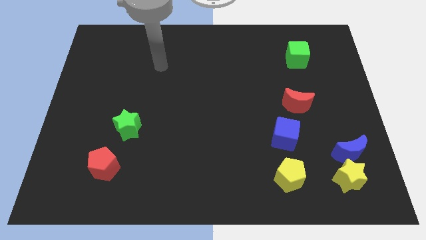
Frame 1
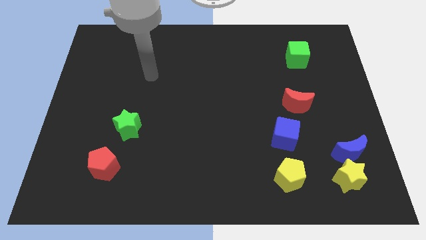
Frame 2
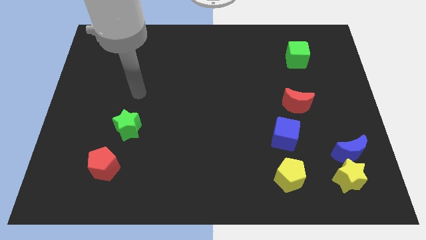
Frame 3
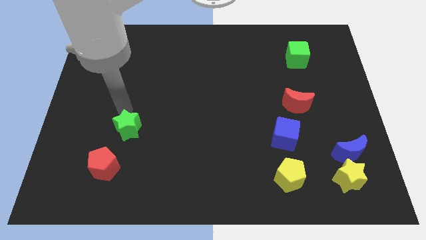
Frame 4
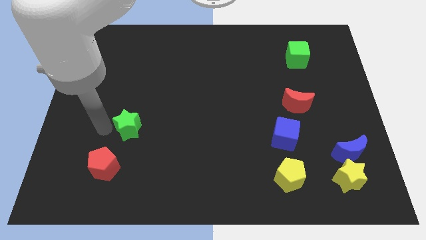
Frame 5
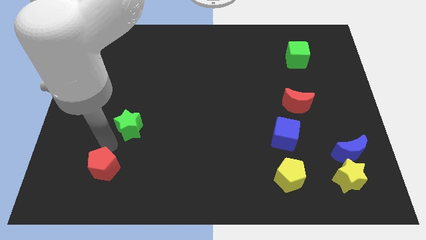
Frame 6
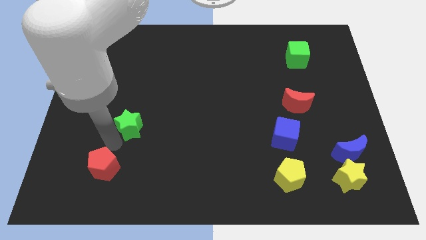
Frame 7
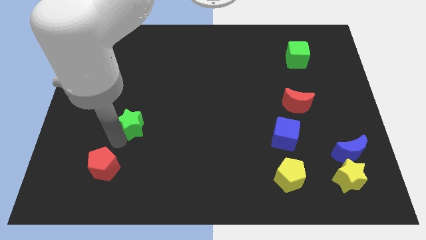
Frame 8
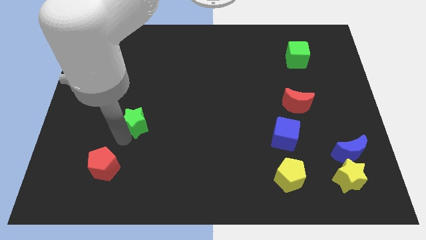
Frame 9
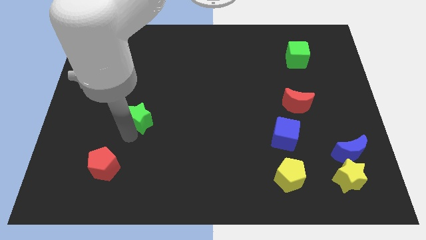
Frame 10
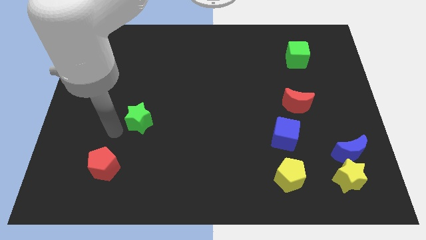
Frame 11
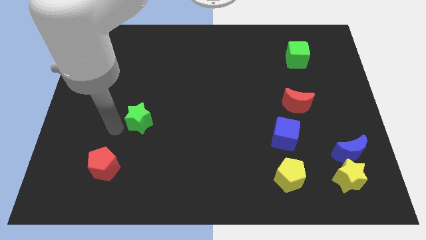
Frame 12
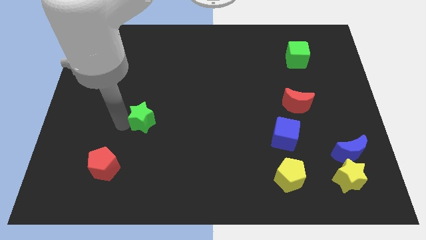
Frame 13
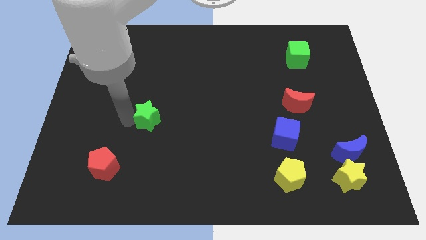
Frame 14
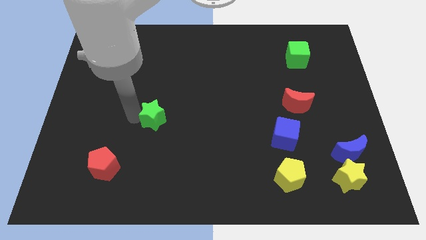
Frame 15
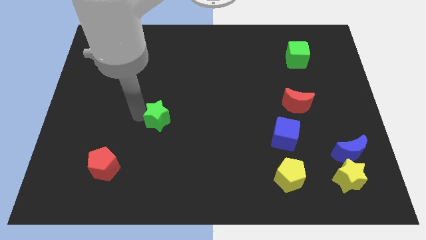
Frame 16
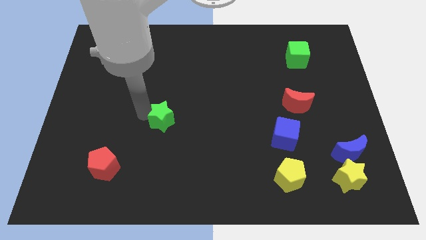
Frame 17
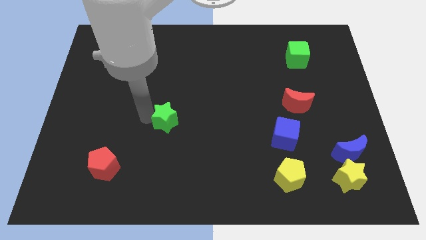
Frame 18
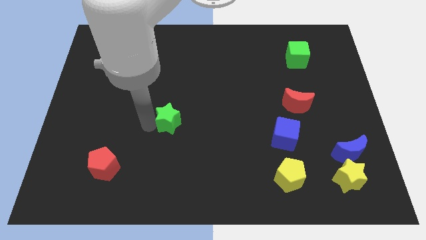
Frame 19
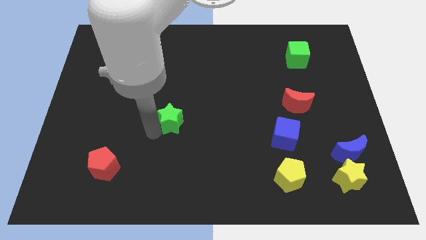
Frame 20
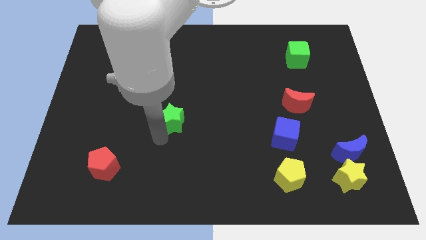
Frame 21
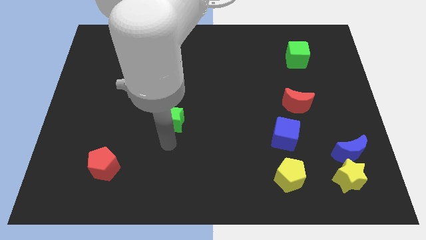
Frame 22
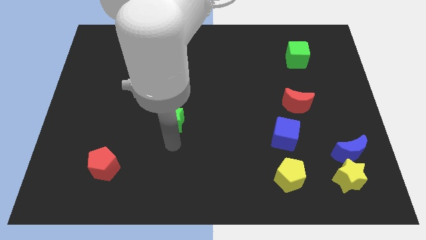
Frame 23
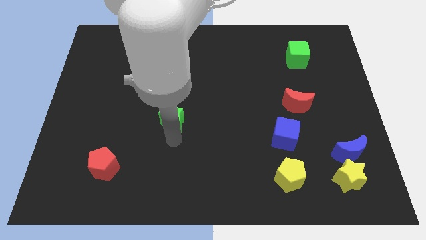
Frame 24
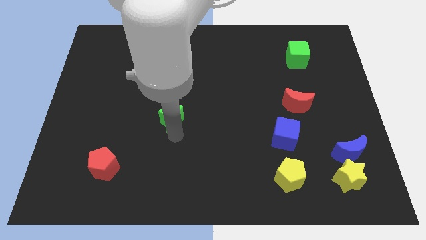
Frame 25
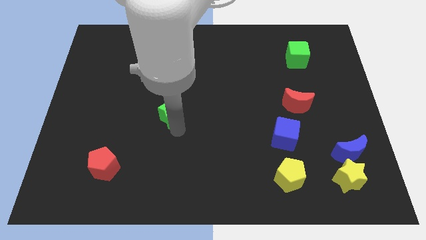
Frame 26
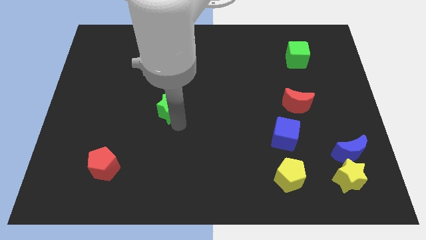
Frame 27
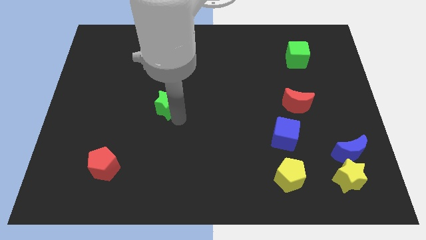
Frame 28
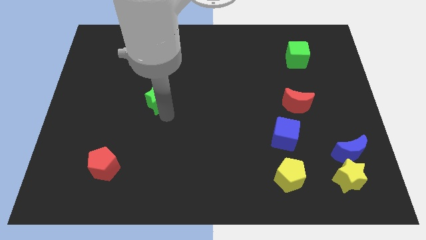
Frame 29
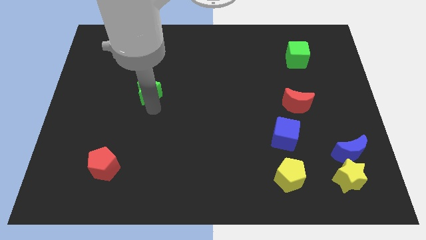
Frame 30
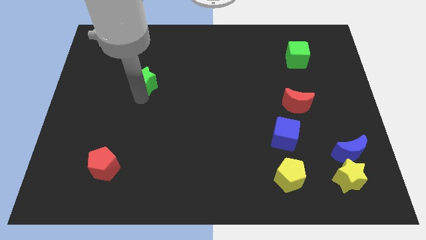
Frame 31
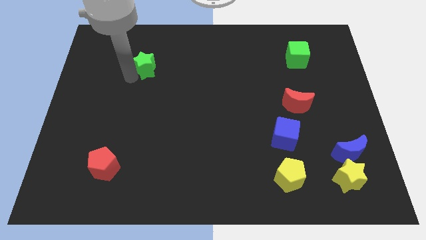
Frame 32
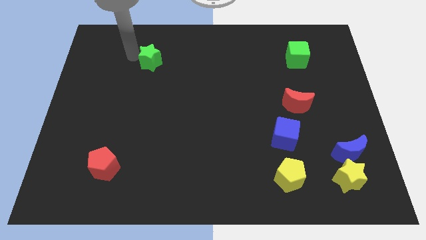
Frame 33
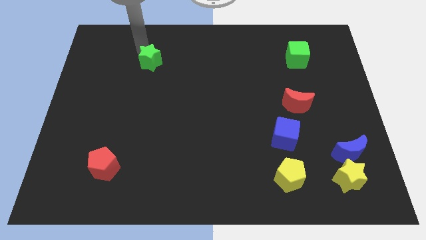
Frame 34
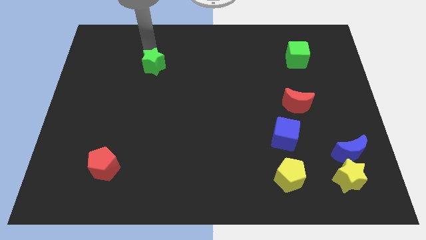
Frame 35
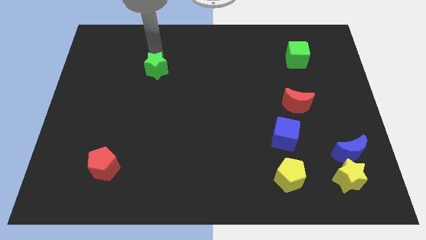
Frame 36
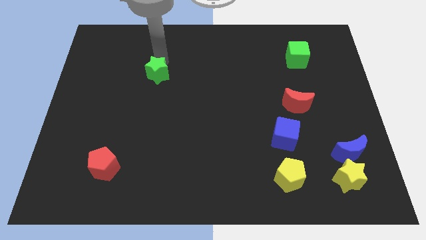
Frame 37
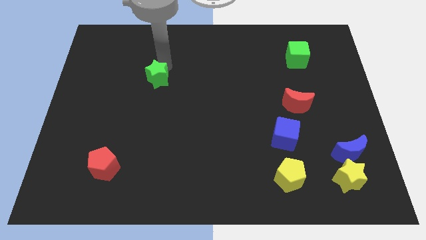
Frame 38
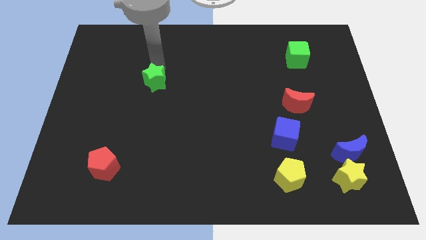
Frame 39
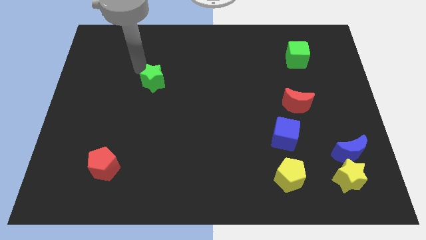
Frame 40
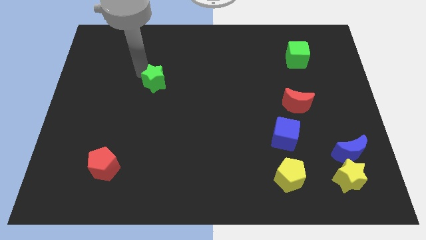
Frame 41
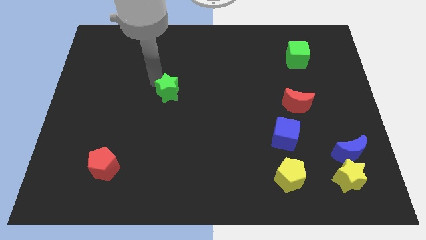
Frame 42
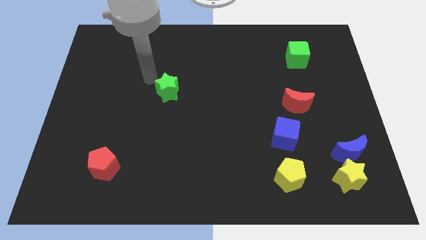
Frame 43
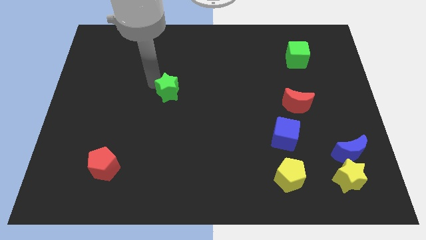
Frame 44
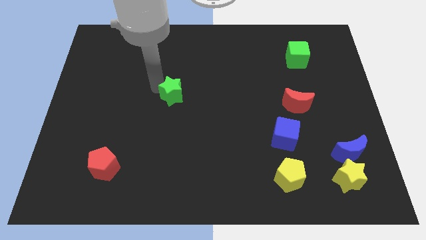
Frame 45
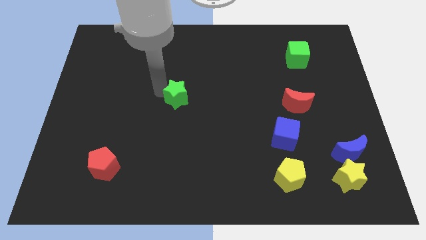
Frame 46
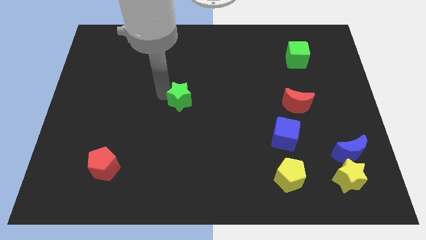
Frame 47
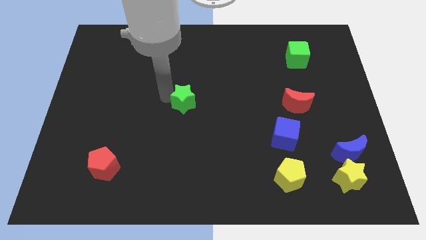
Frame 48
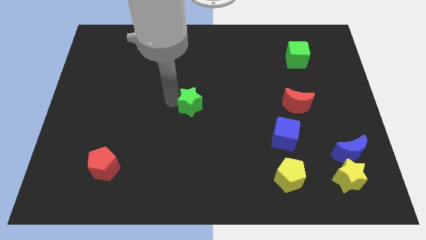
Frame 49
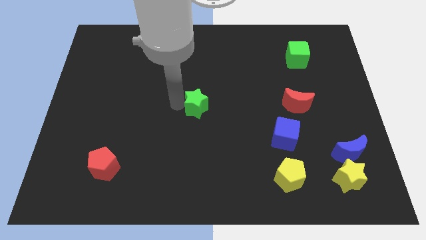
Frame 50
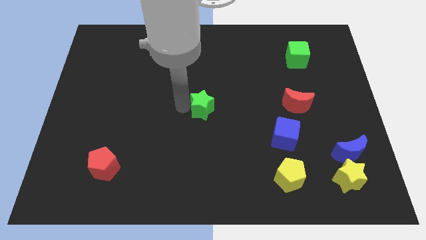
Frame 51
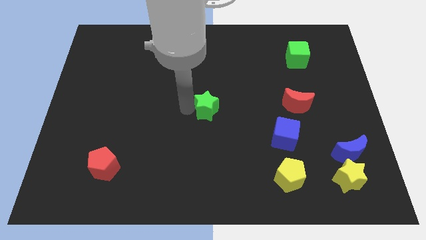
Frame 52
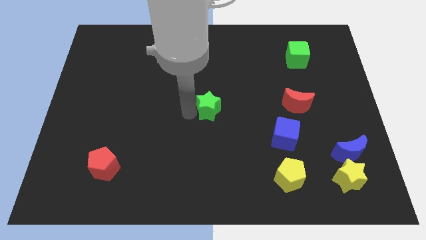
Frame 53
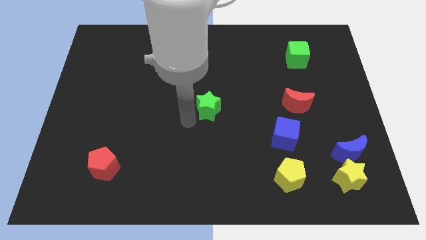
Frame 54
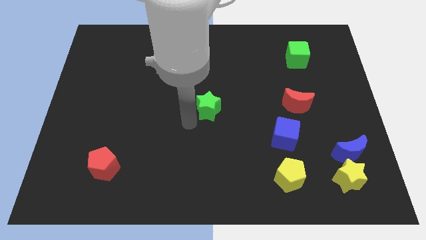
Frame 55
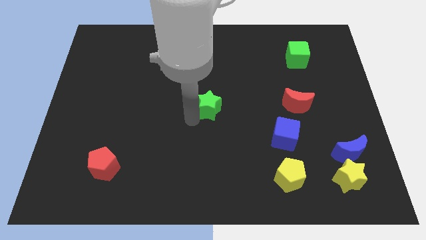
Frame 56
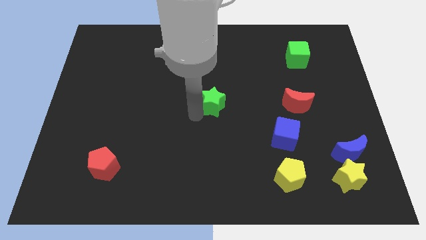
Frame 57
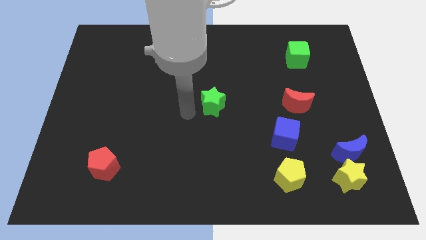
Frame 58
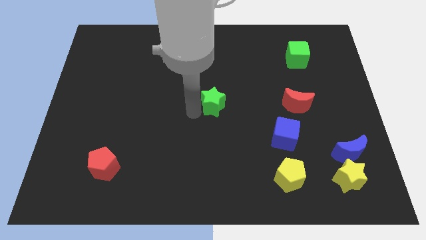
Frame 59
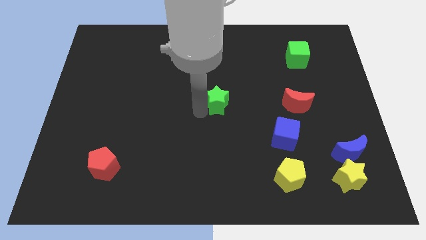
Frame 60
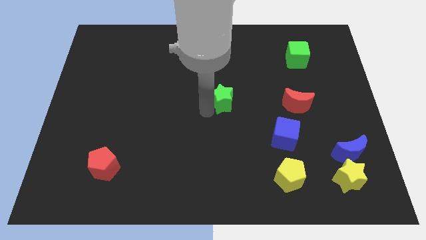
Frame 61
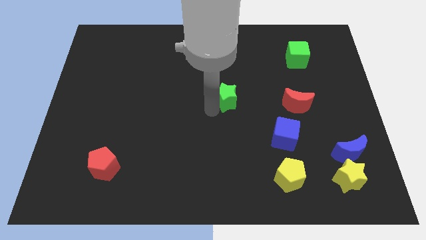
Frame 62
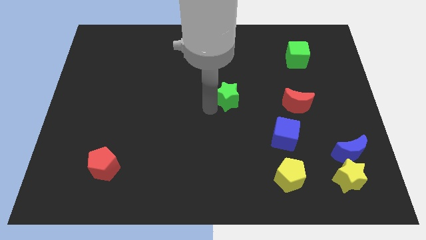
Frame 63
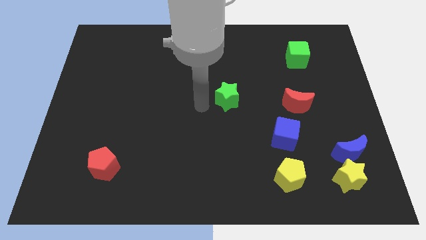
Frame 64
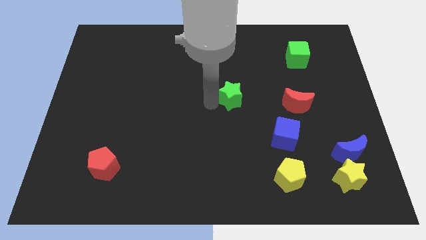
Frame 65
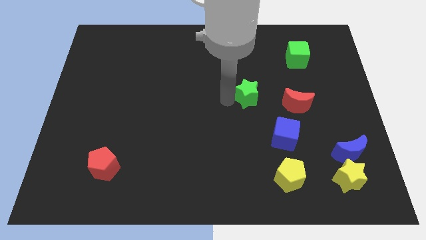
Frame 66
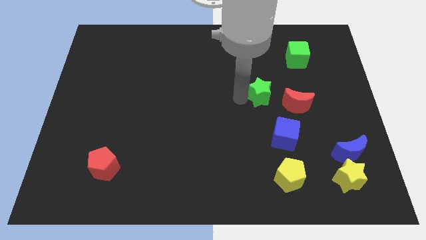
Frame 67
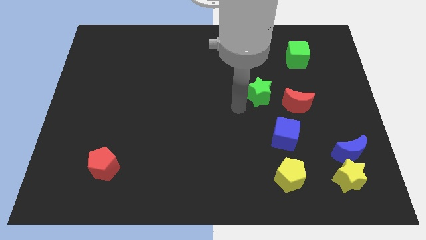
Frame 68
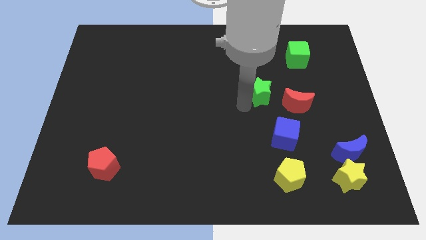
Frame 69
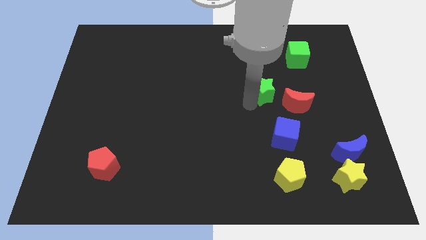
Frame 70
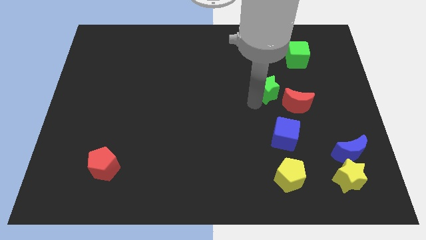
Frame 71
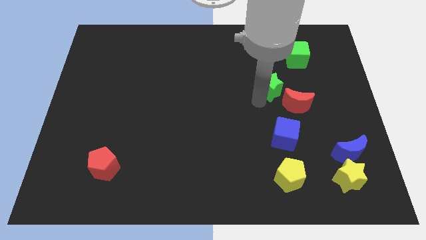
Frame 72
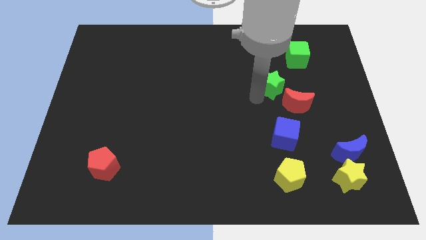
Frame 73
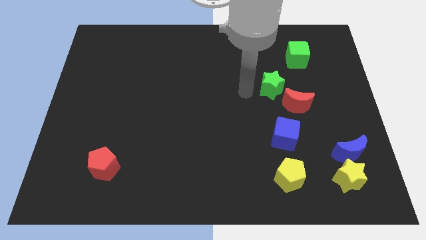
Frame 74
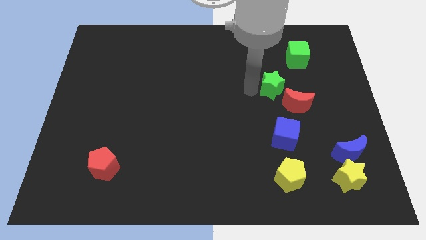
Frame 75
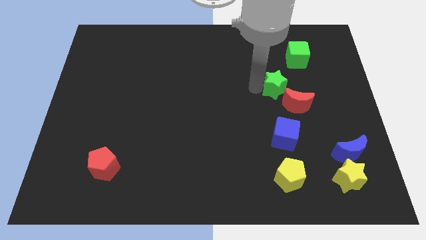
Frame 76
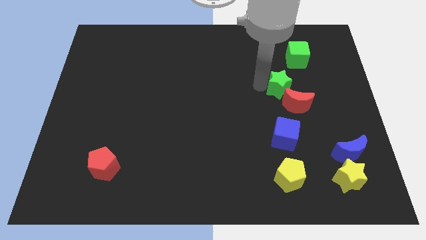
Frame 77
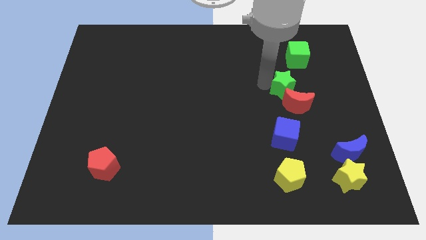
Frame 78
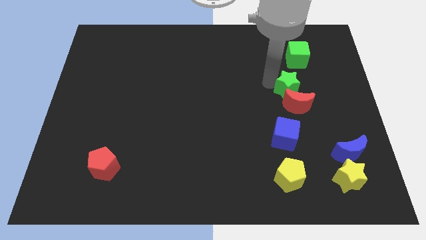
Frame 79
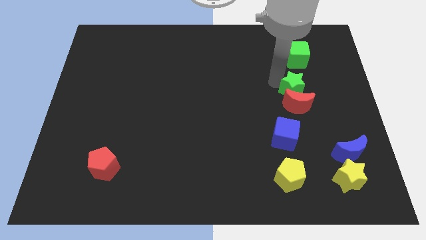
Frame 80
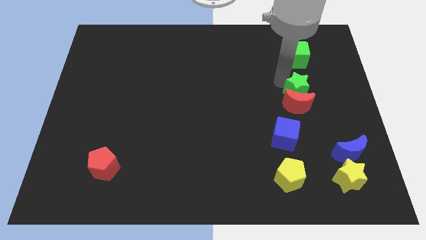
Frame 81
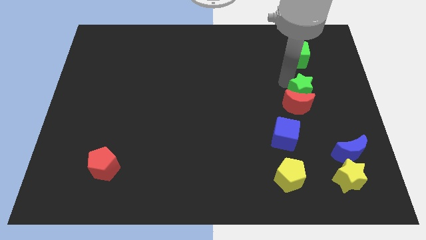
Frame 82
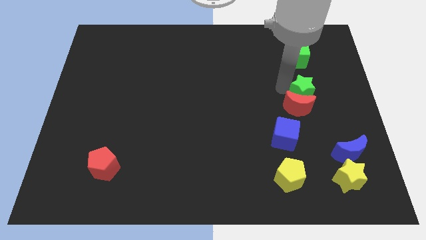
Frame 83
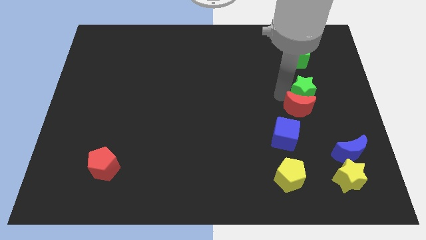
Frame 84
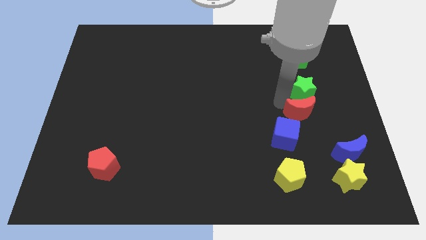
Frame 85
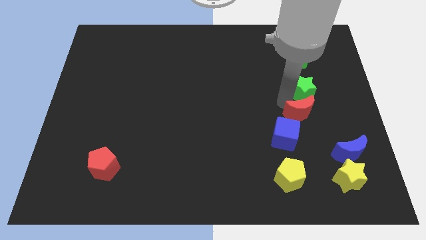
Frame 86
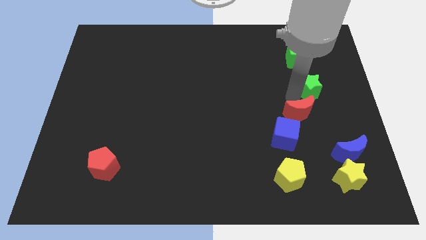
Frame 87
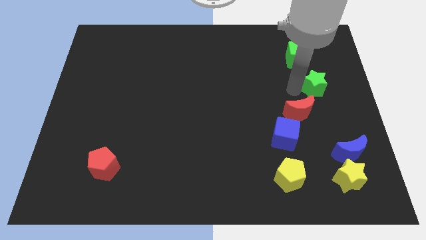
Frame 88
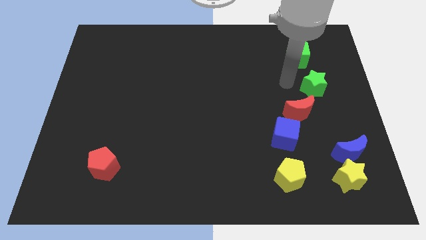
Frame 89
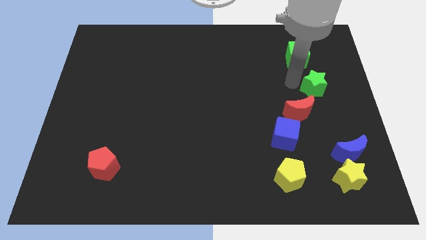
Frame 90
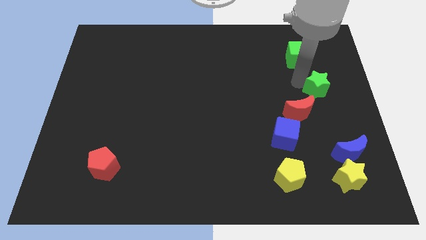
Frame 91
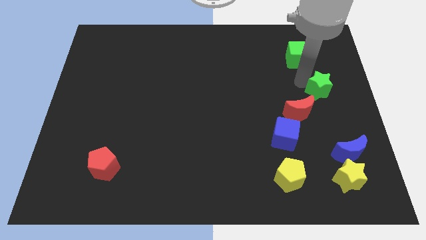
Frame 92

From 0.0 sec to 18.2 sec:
put the green star to the right side
